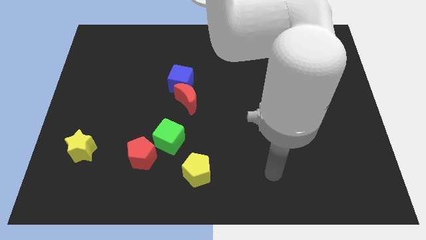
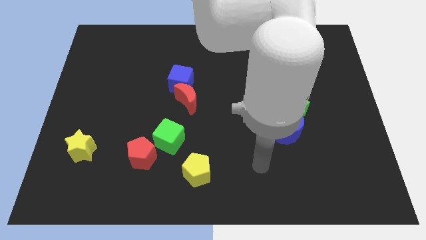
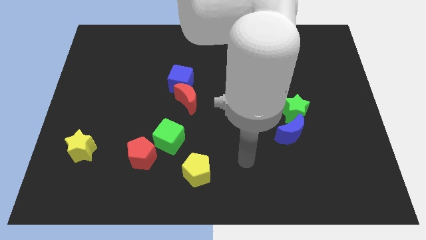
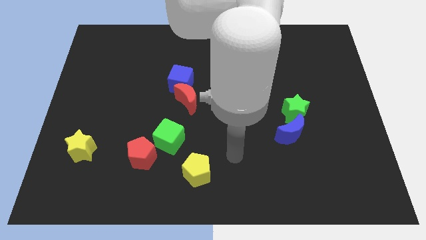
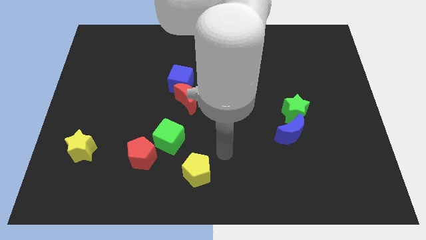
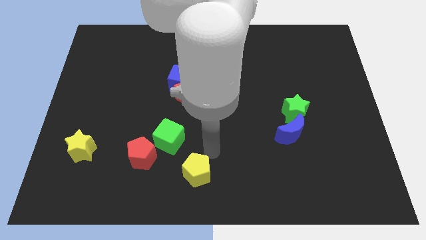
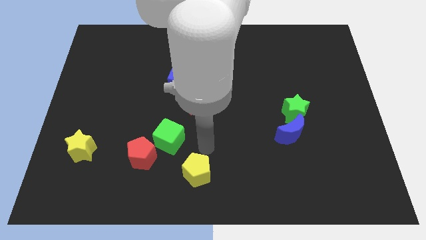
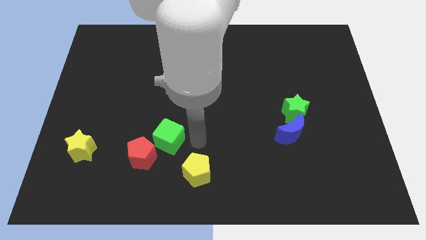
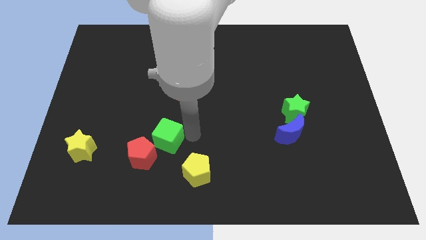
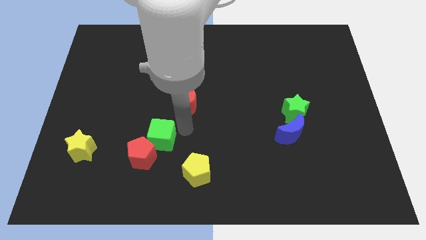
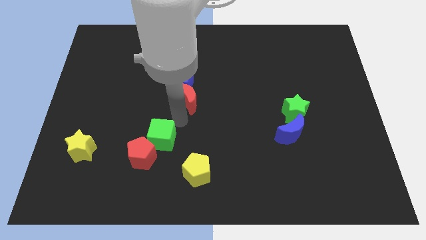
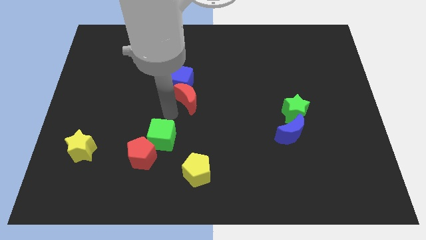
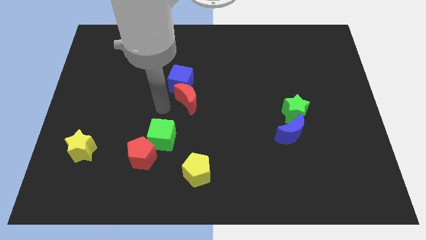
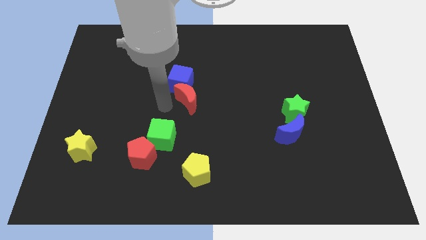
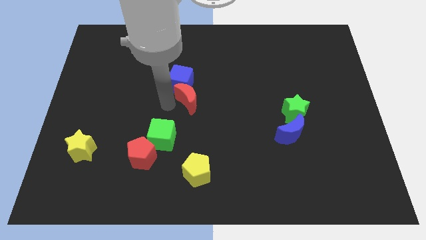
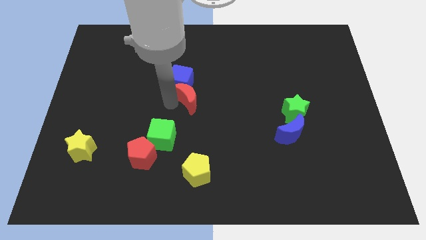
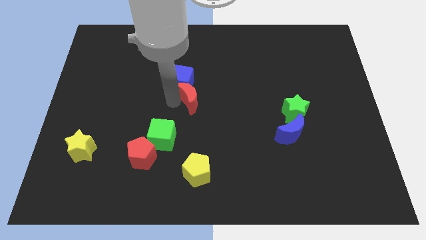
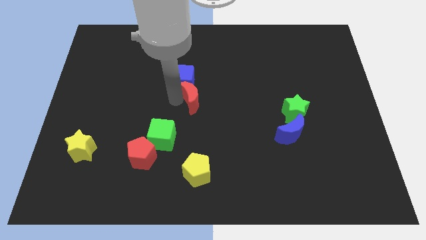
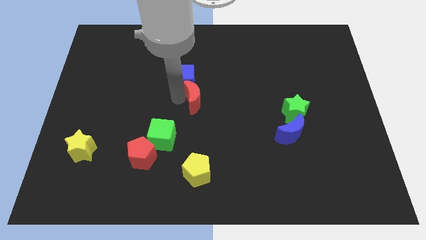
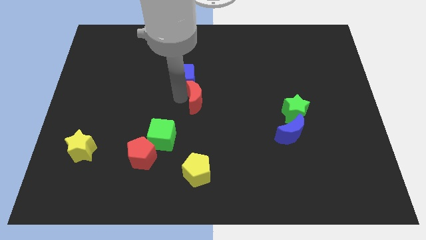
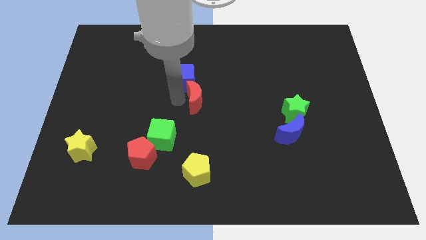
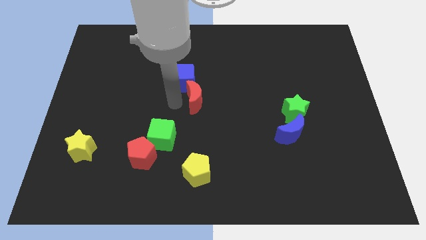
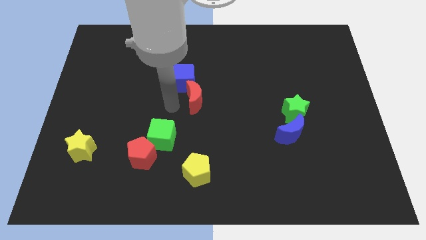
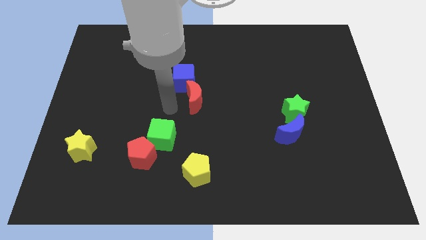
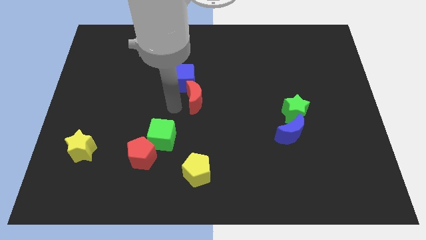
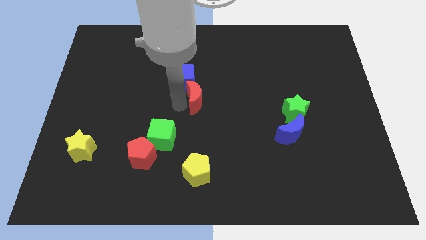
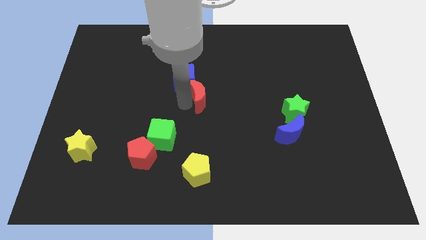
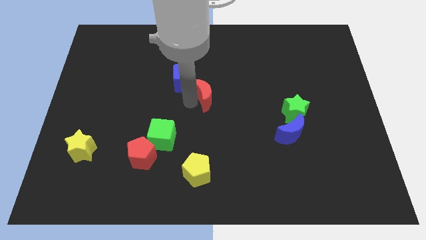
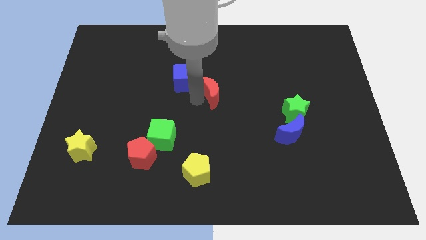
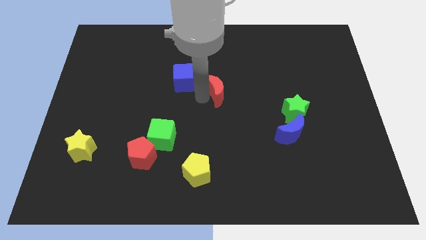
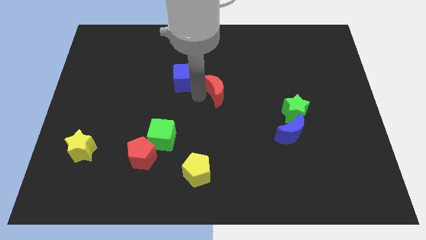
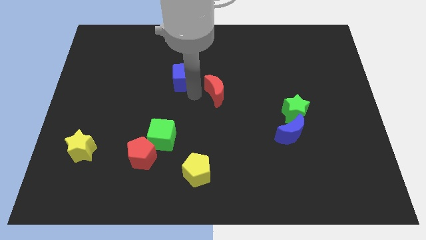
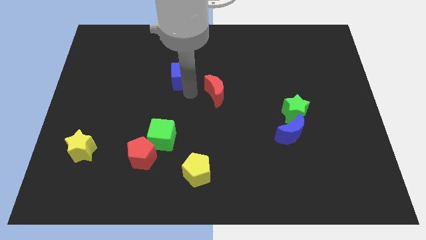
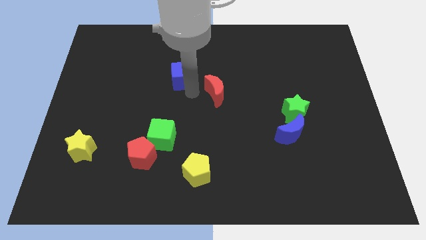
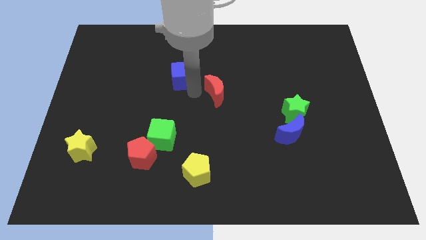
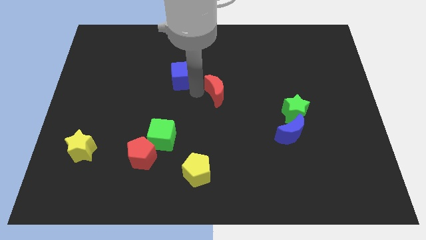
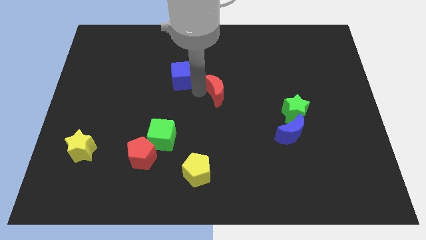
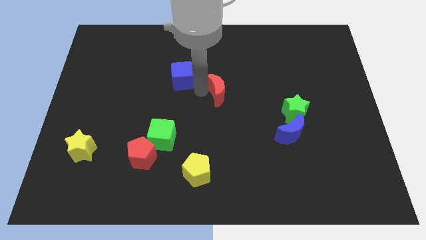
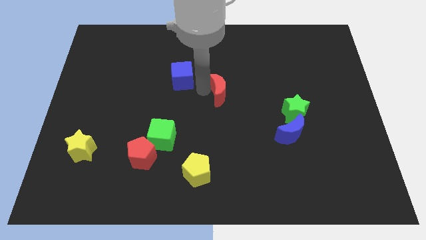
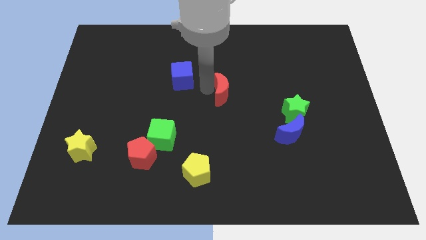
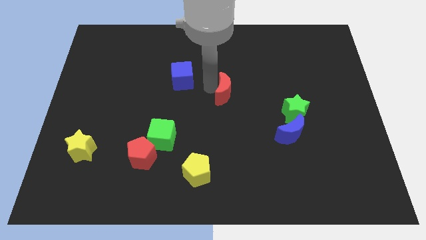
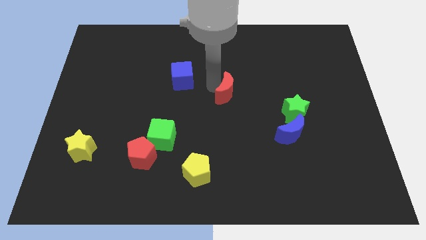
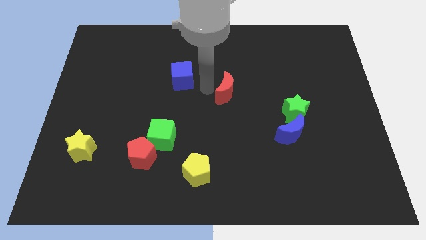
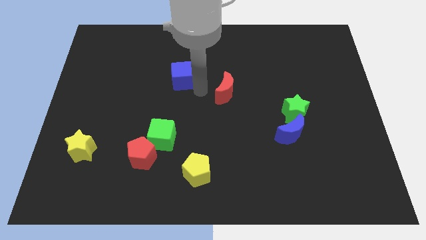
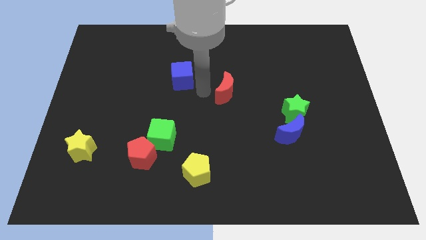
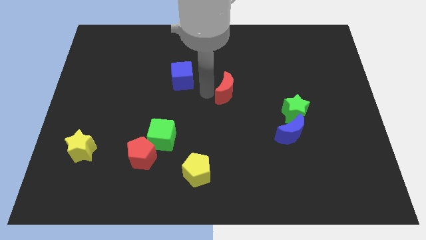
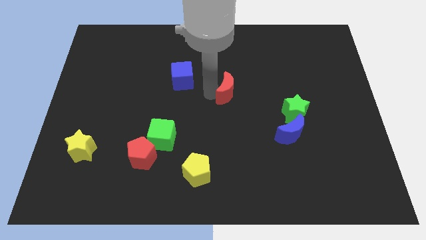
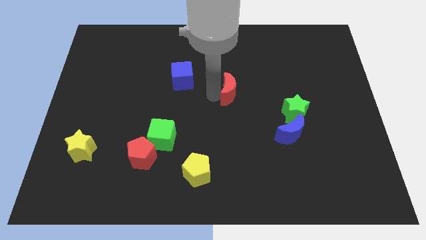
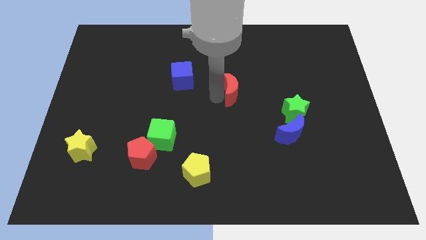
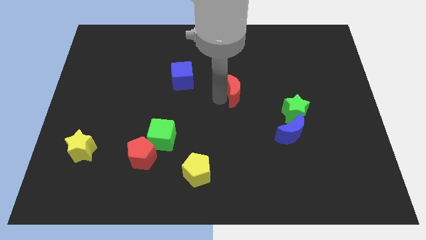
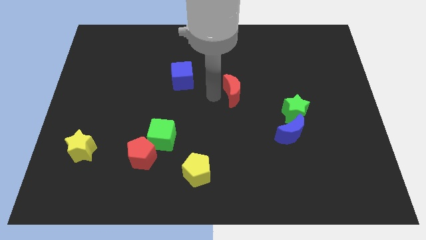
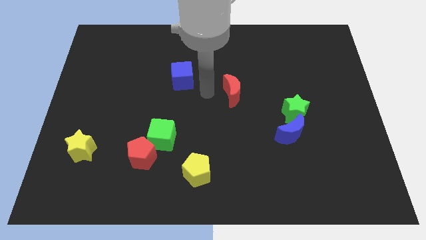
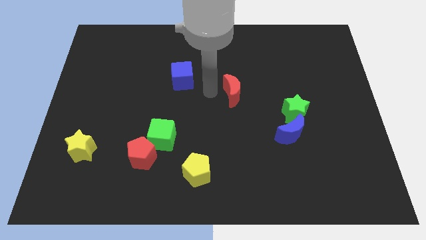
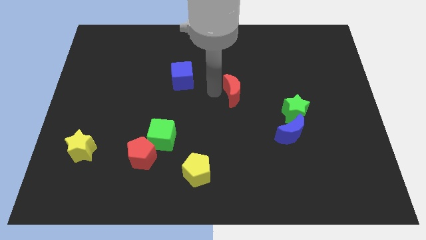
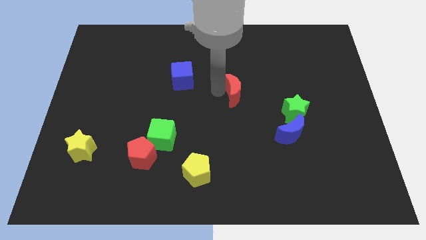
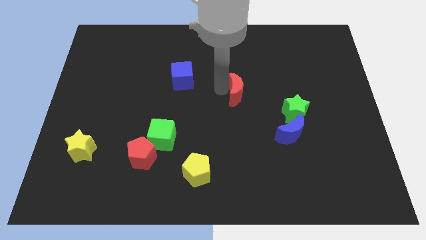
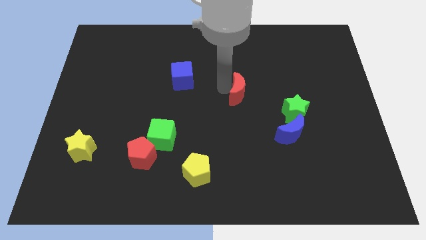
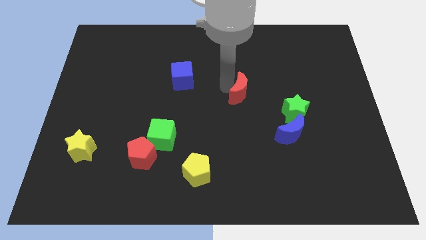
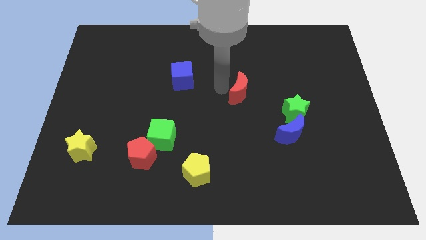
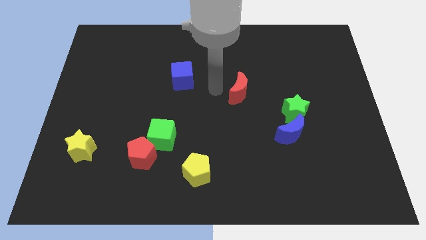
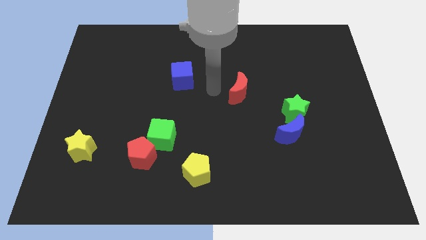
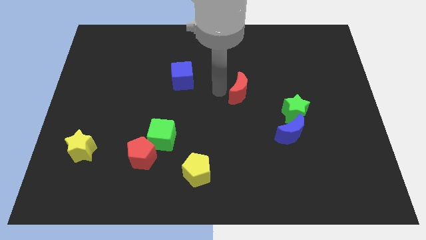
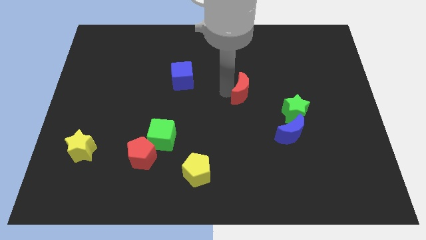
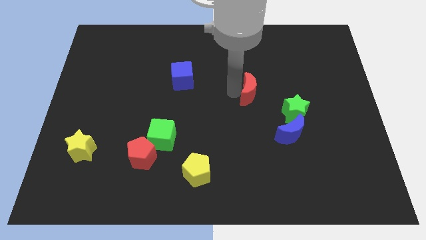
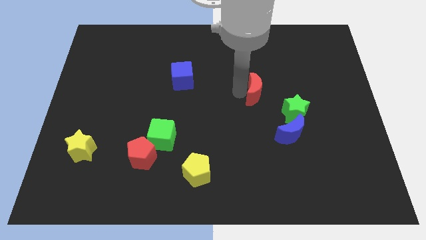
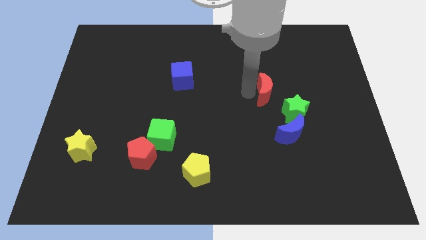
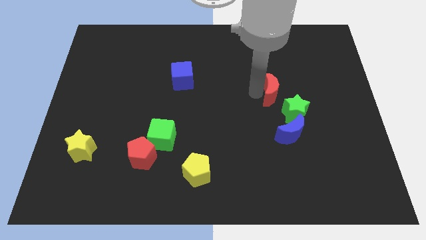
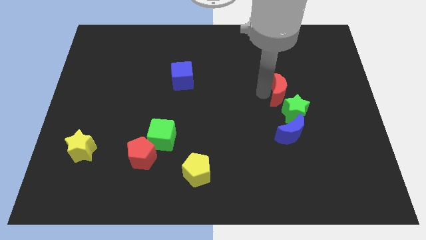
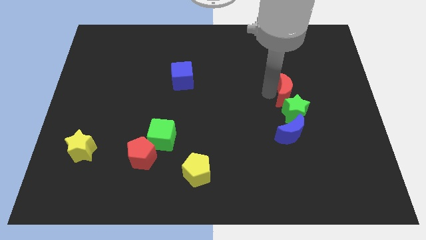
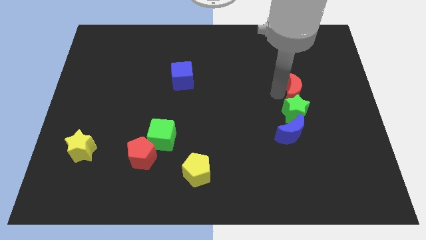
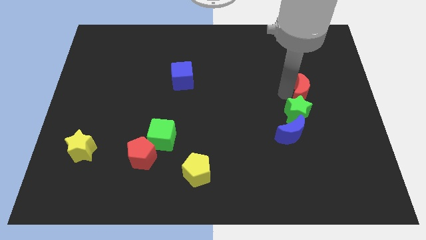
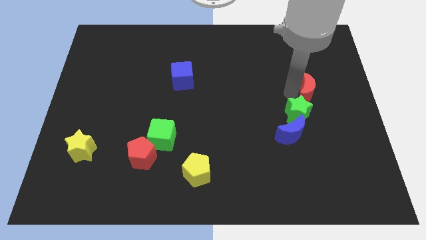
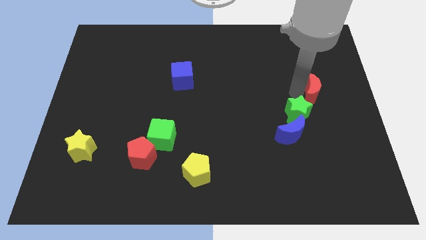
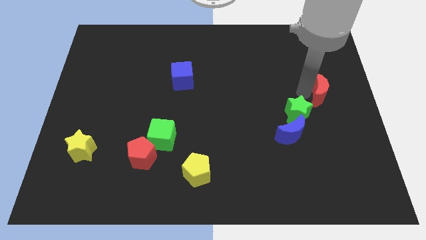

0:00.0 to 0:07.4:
slide the red moon to the center right
